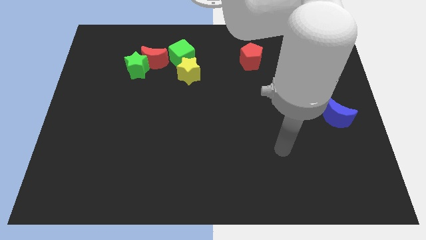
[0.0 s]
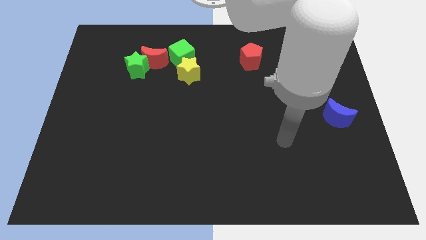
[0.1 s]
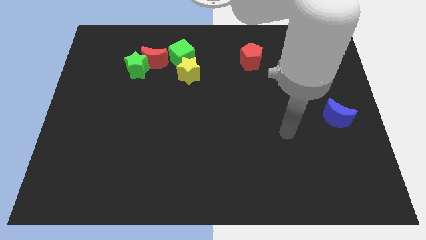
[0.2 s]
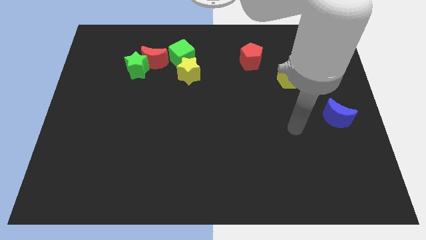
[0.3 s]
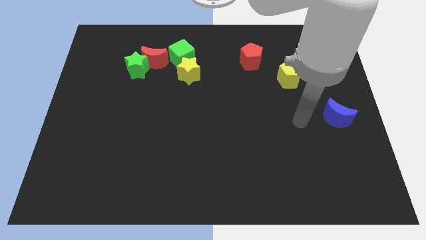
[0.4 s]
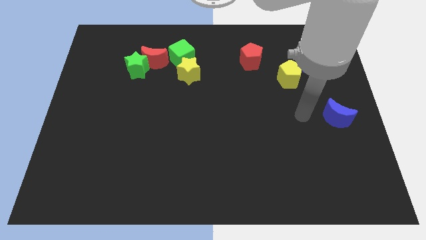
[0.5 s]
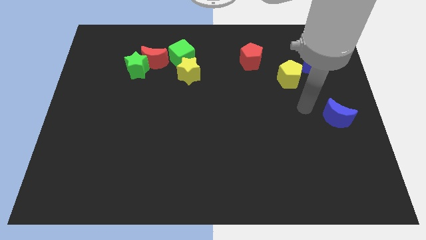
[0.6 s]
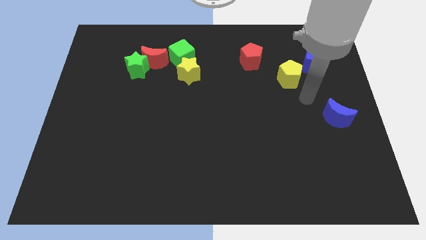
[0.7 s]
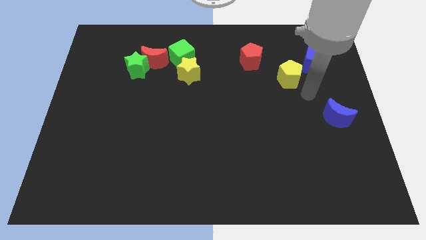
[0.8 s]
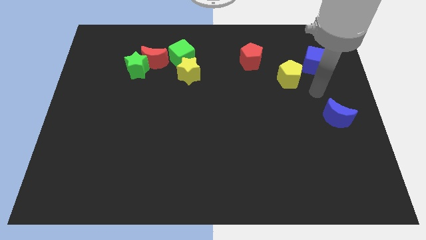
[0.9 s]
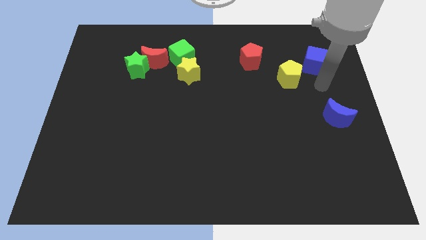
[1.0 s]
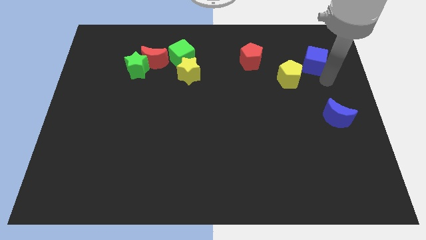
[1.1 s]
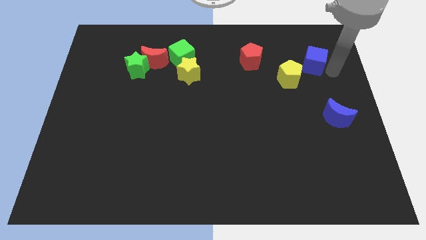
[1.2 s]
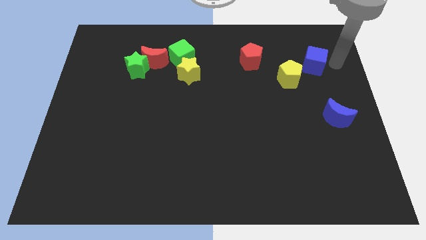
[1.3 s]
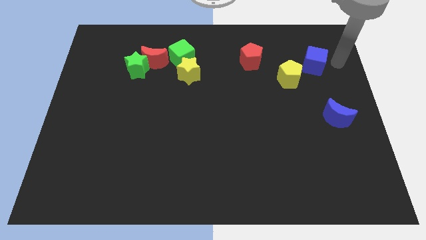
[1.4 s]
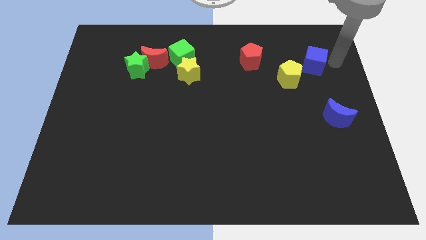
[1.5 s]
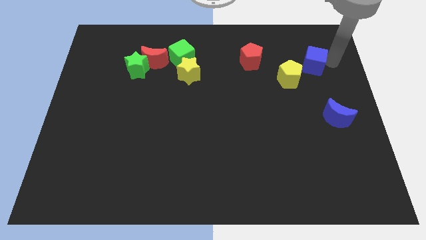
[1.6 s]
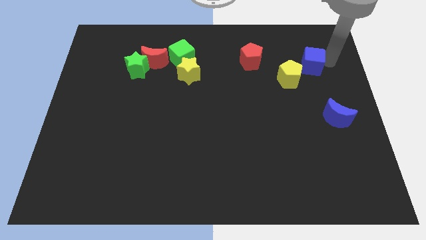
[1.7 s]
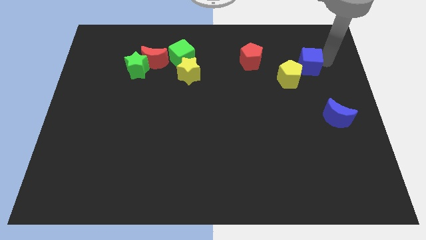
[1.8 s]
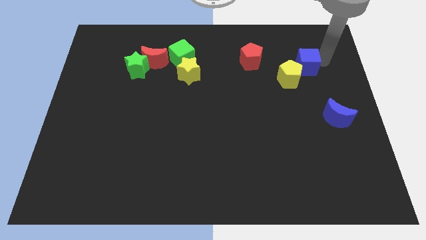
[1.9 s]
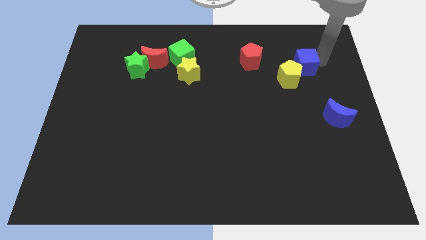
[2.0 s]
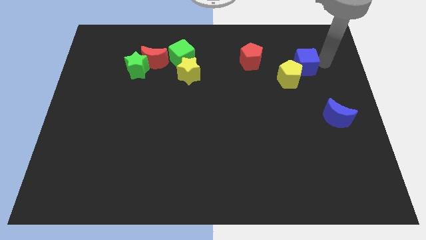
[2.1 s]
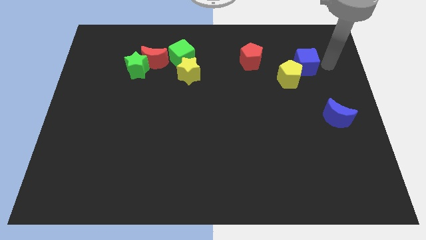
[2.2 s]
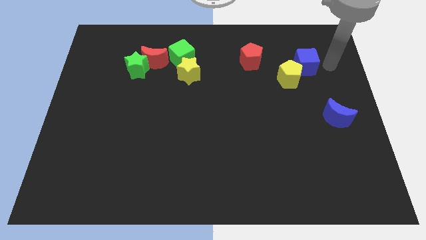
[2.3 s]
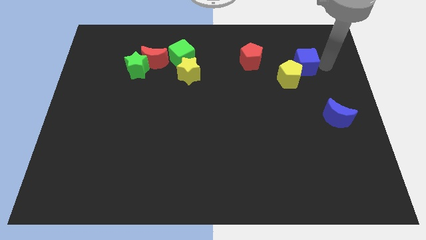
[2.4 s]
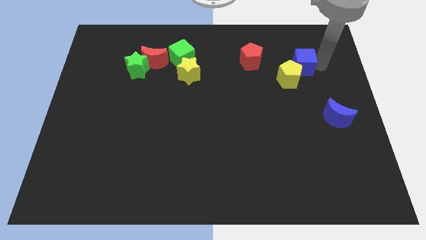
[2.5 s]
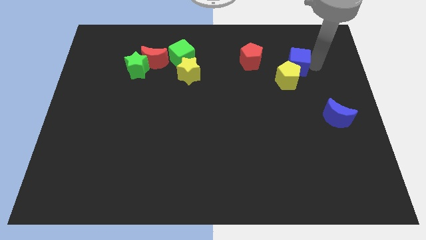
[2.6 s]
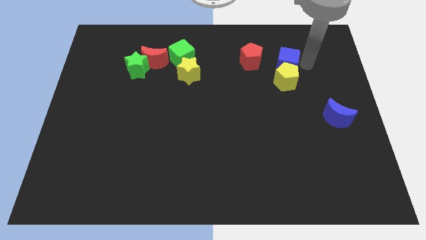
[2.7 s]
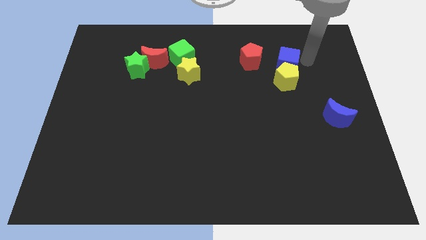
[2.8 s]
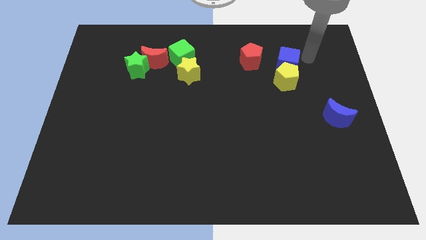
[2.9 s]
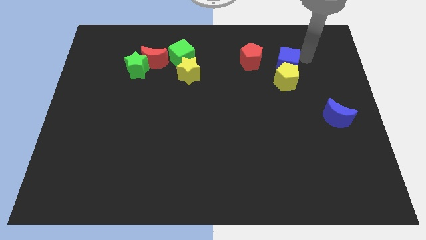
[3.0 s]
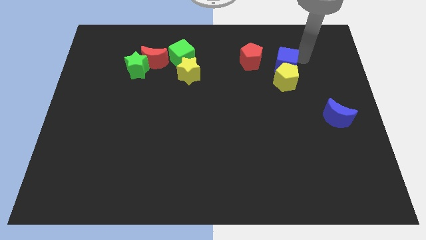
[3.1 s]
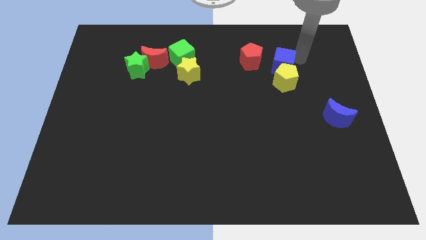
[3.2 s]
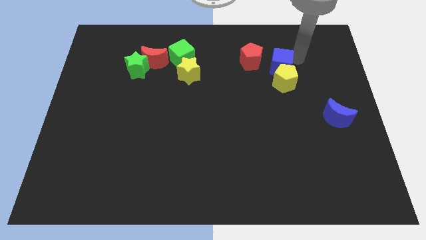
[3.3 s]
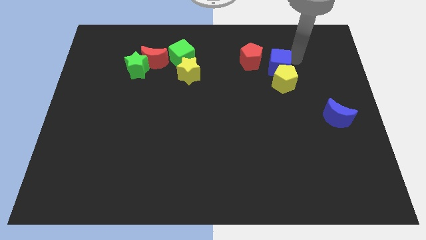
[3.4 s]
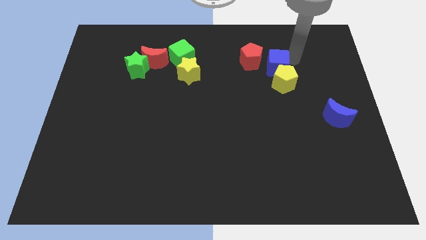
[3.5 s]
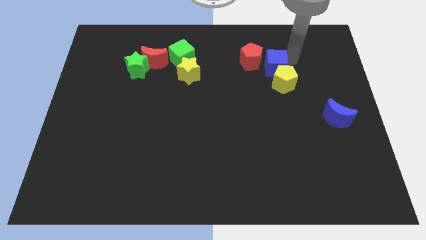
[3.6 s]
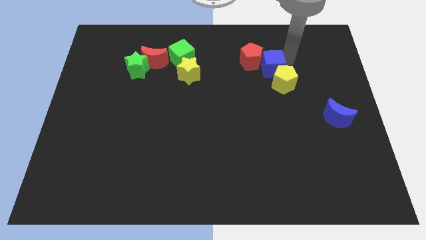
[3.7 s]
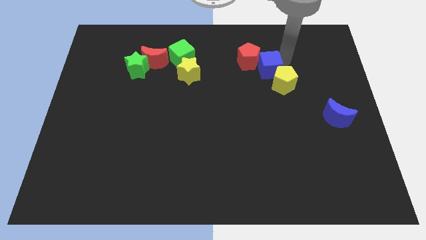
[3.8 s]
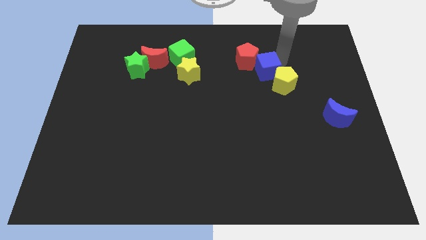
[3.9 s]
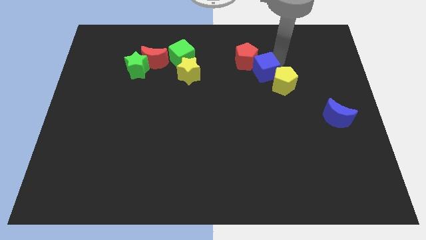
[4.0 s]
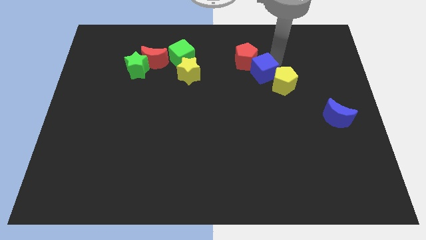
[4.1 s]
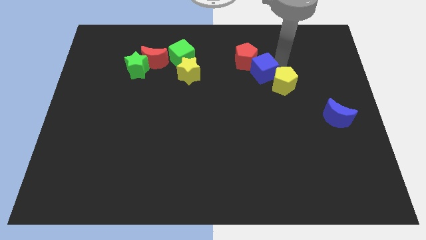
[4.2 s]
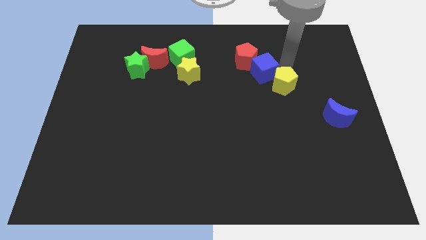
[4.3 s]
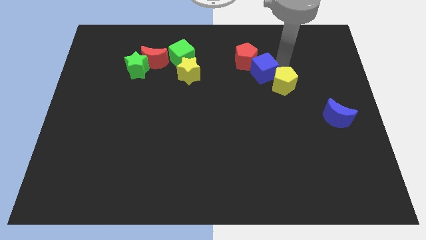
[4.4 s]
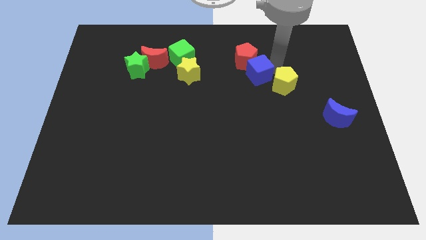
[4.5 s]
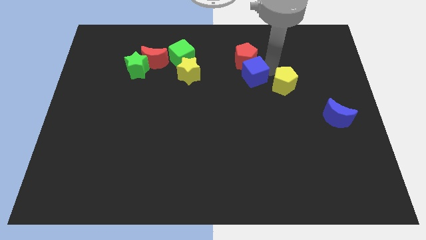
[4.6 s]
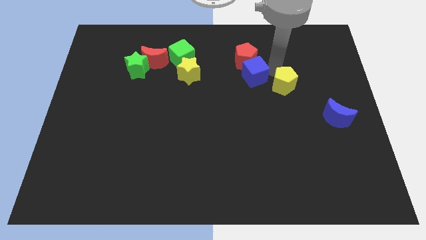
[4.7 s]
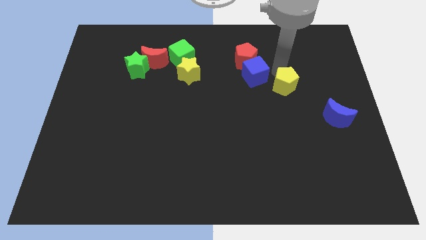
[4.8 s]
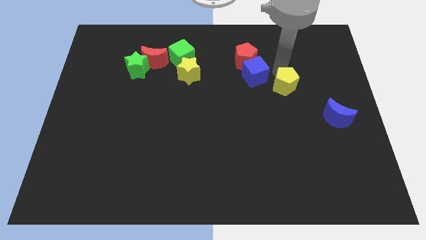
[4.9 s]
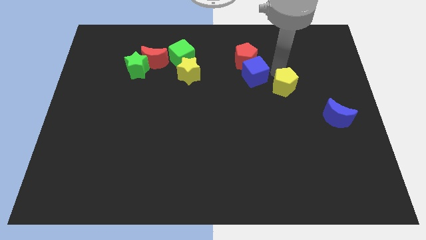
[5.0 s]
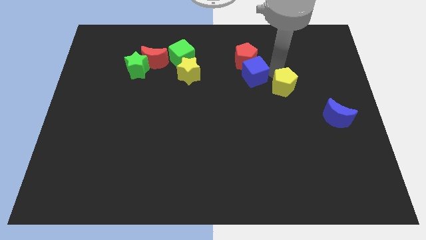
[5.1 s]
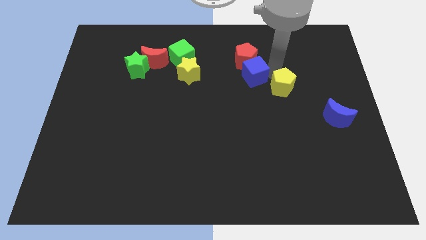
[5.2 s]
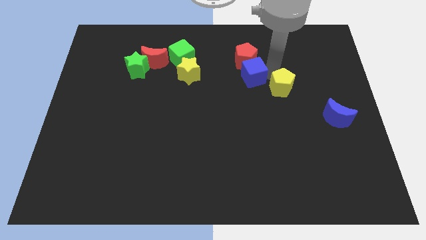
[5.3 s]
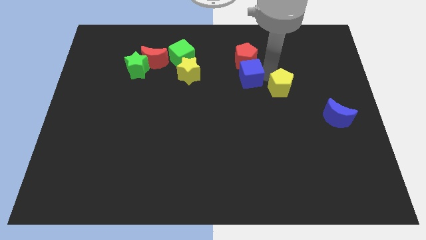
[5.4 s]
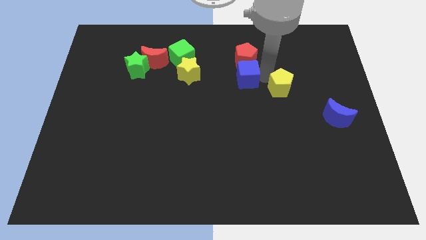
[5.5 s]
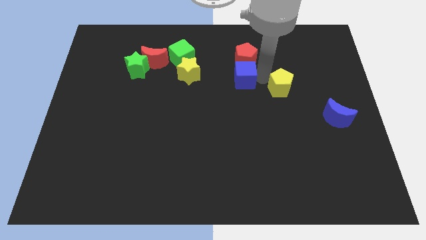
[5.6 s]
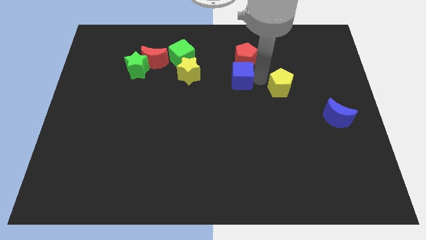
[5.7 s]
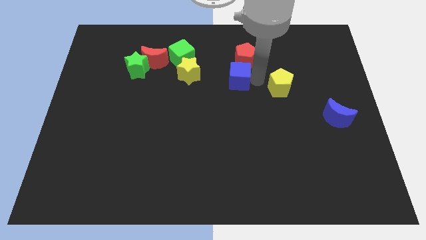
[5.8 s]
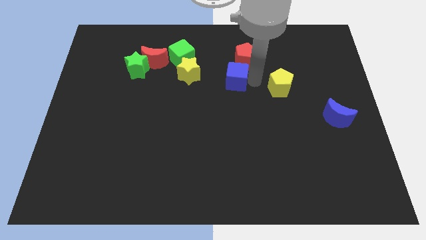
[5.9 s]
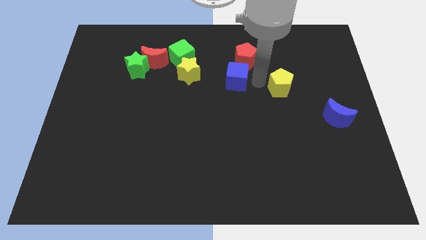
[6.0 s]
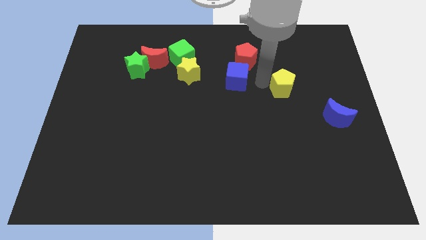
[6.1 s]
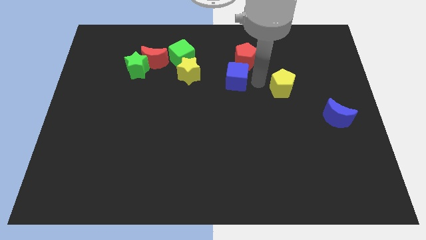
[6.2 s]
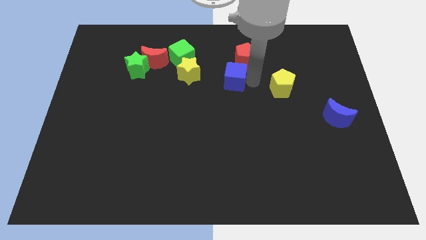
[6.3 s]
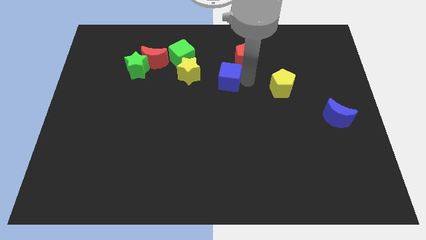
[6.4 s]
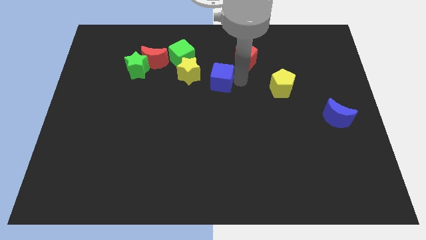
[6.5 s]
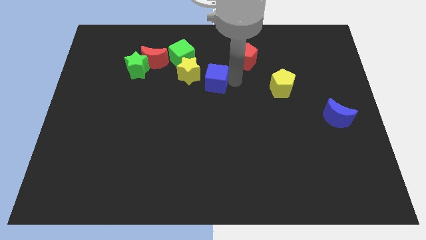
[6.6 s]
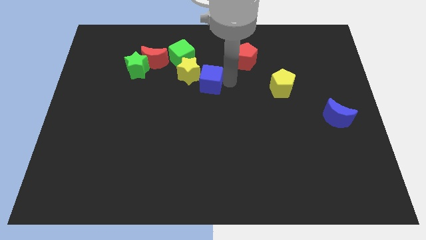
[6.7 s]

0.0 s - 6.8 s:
move the blue cube to the yellow star

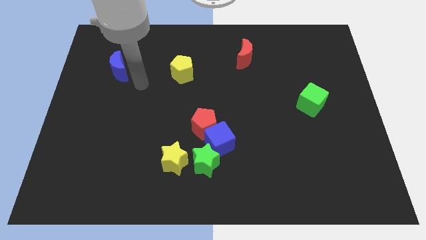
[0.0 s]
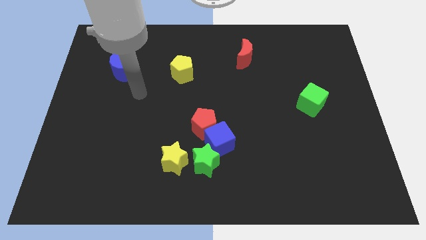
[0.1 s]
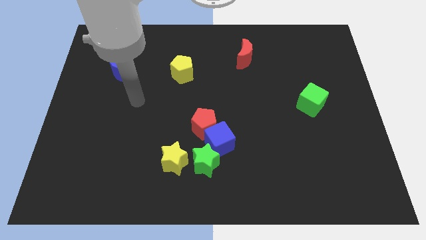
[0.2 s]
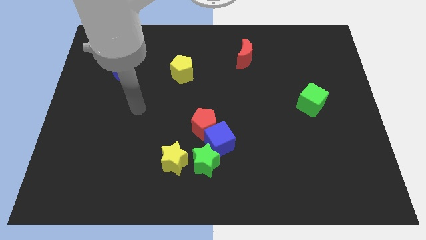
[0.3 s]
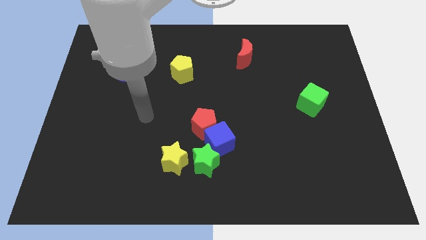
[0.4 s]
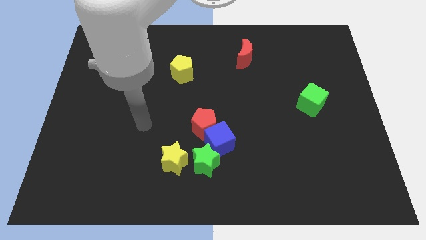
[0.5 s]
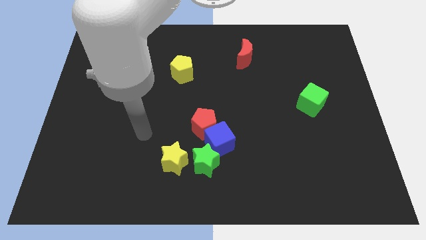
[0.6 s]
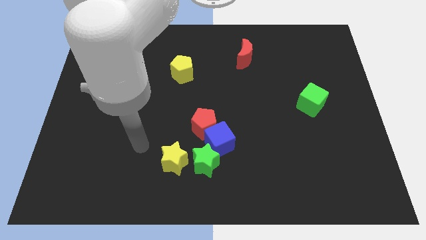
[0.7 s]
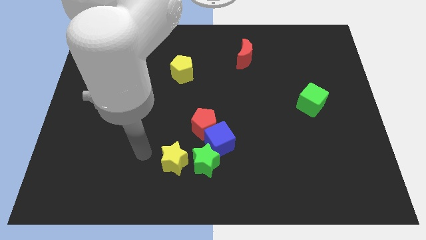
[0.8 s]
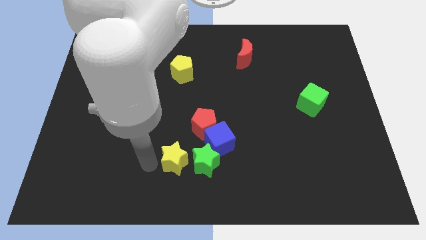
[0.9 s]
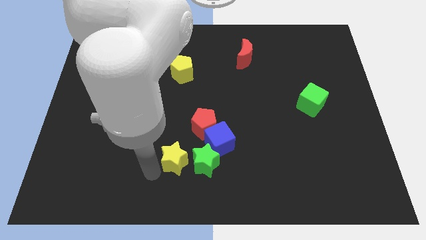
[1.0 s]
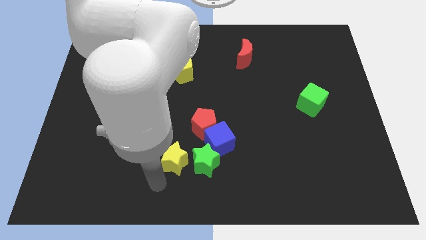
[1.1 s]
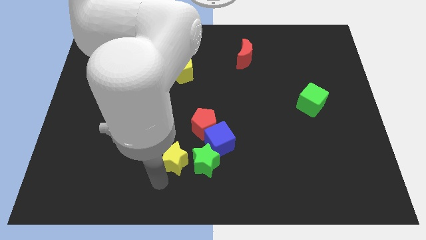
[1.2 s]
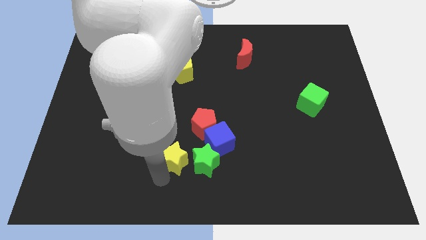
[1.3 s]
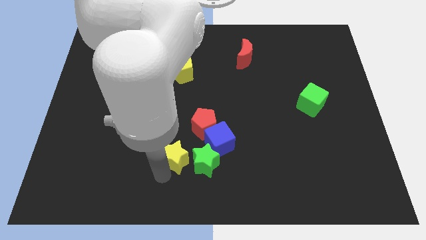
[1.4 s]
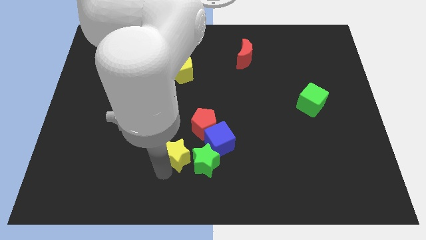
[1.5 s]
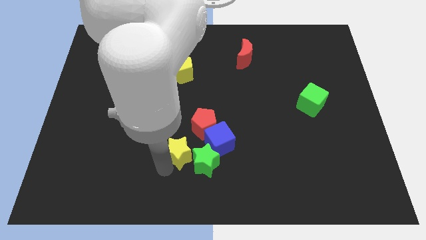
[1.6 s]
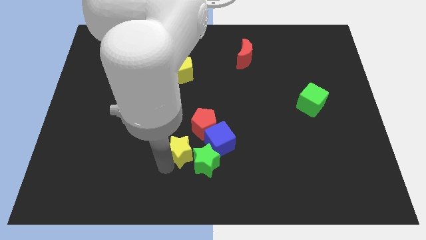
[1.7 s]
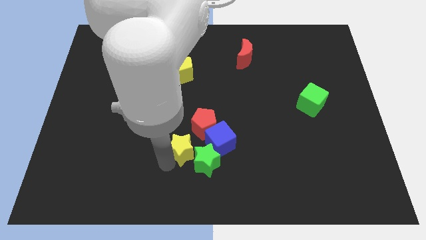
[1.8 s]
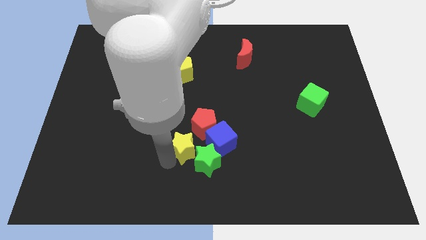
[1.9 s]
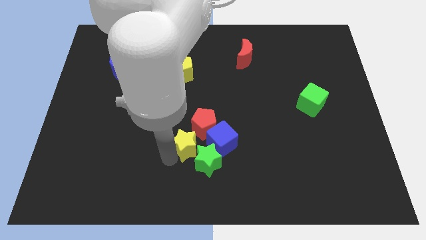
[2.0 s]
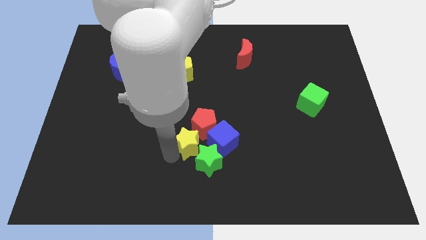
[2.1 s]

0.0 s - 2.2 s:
put the yellow star next to the red pentagon
